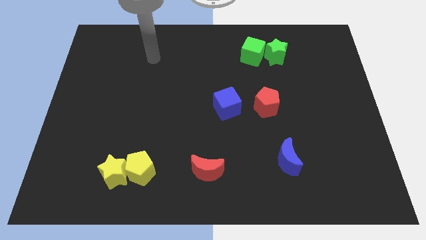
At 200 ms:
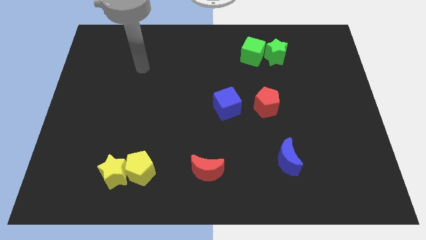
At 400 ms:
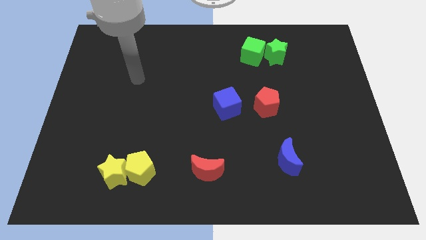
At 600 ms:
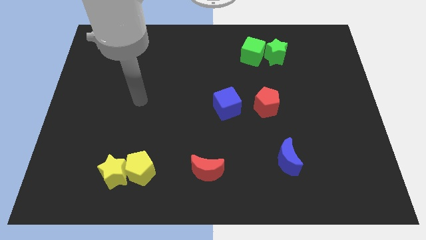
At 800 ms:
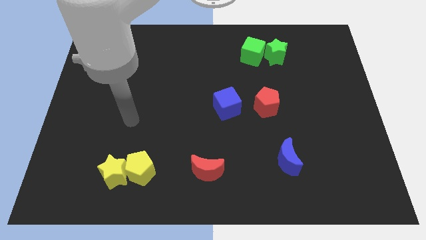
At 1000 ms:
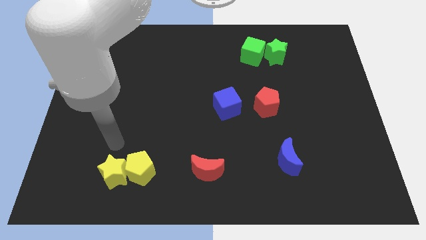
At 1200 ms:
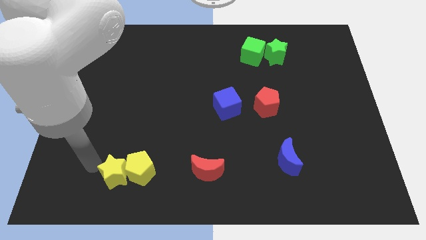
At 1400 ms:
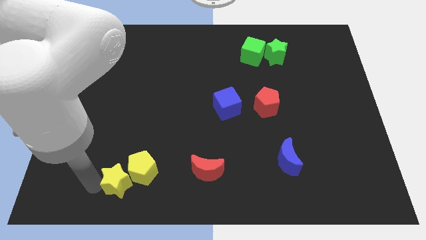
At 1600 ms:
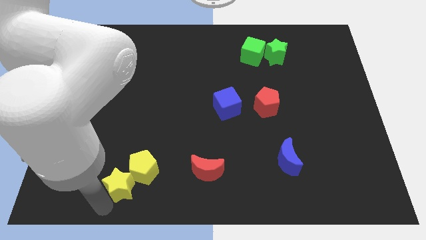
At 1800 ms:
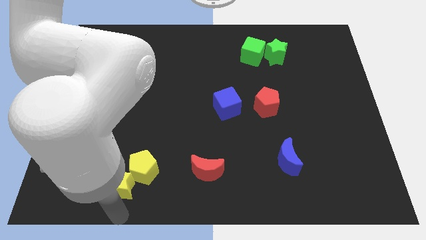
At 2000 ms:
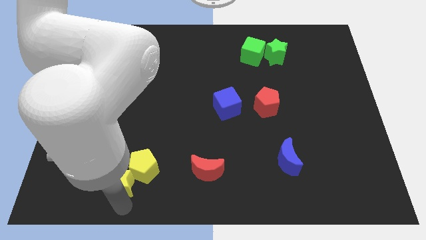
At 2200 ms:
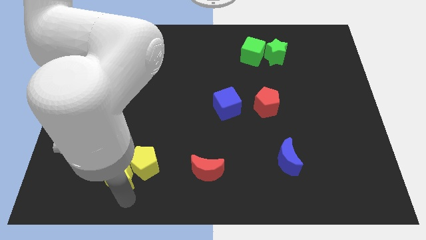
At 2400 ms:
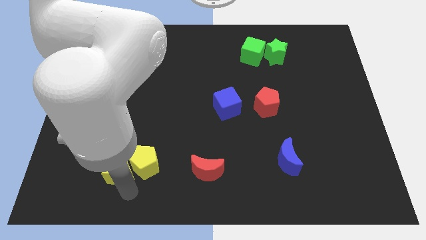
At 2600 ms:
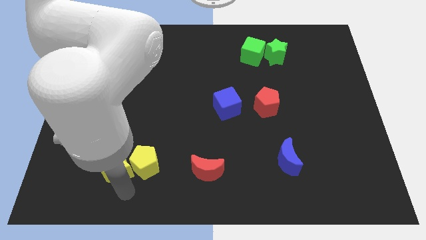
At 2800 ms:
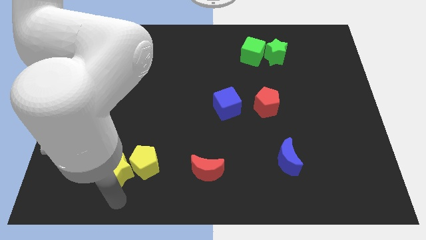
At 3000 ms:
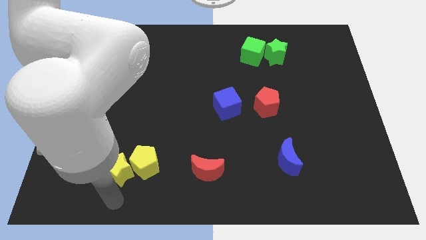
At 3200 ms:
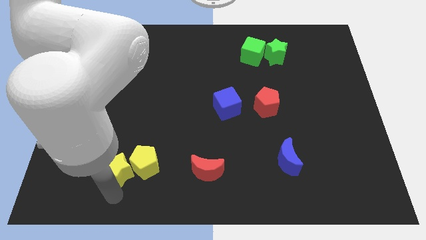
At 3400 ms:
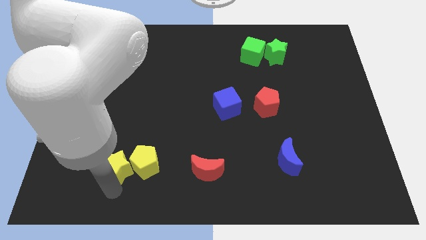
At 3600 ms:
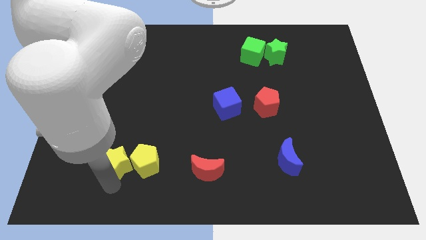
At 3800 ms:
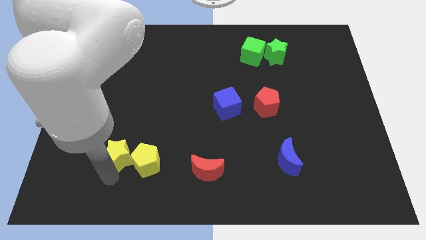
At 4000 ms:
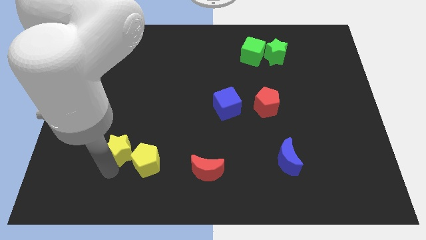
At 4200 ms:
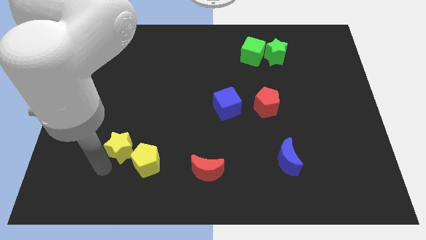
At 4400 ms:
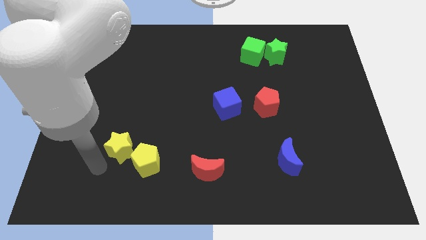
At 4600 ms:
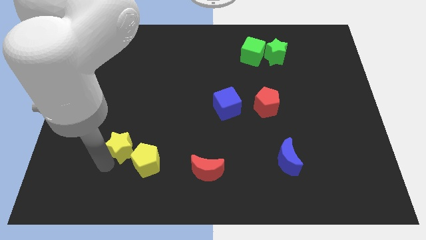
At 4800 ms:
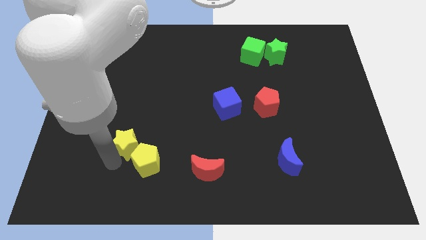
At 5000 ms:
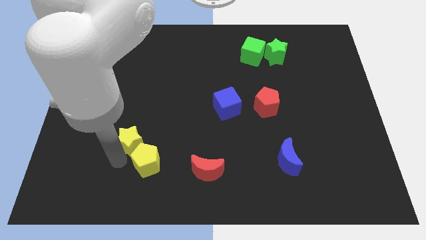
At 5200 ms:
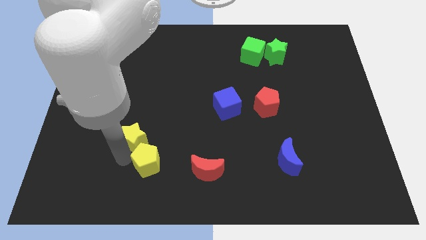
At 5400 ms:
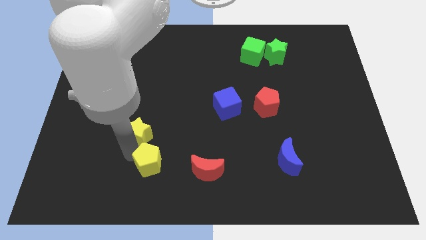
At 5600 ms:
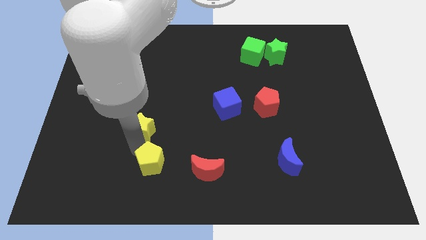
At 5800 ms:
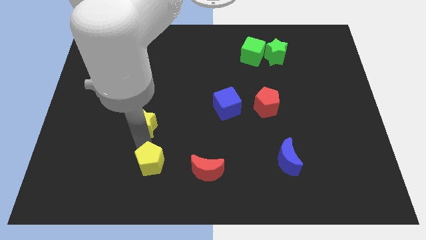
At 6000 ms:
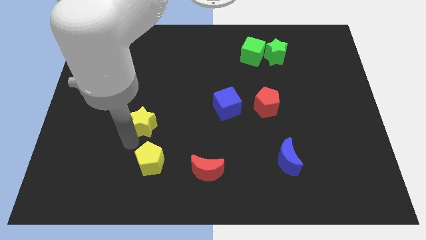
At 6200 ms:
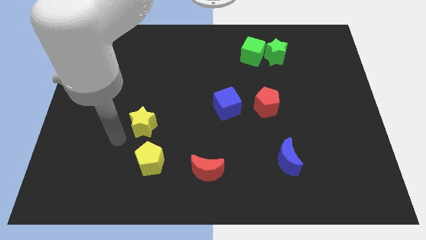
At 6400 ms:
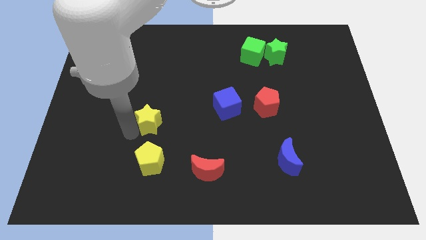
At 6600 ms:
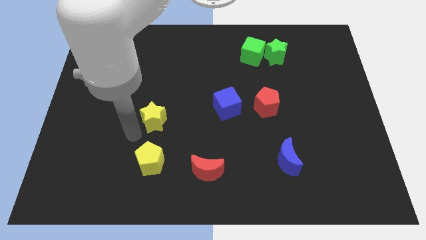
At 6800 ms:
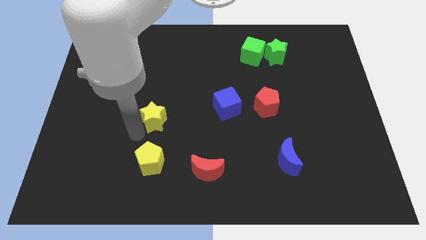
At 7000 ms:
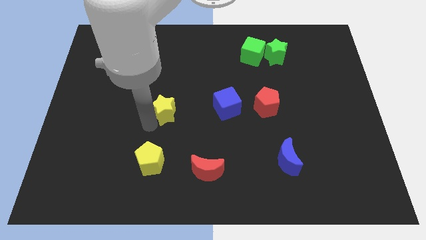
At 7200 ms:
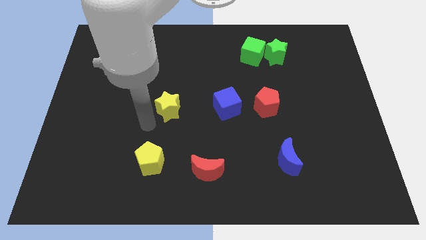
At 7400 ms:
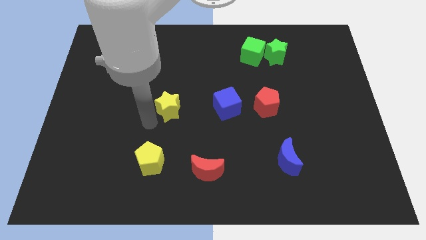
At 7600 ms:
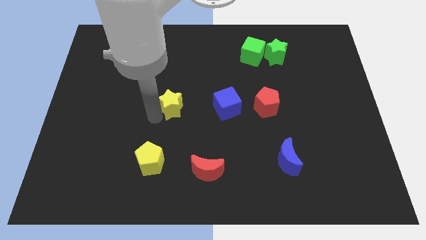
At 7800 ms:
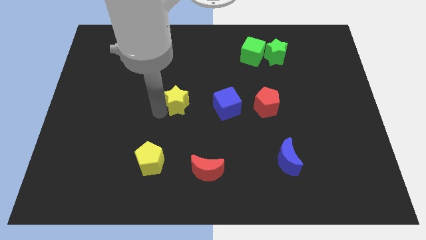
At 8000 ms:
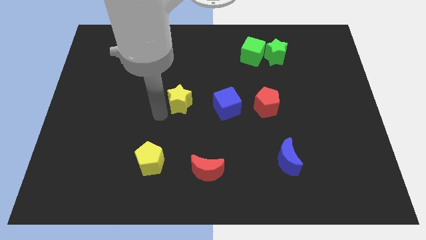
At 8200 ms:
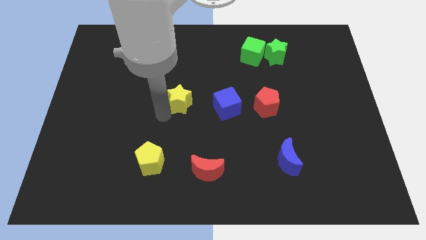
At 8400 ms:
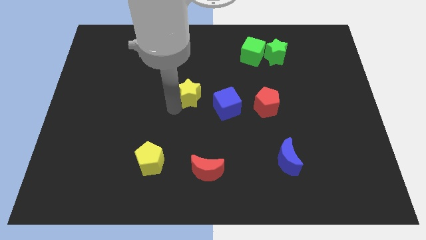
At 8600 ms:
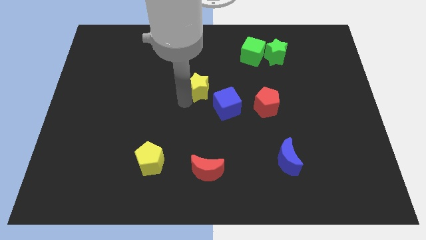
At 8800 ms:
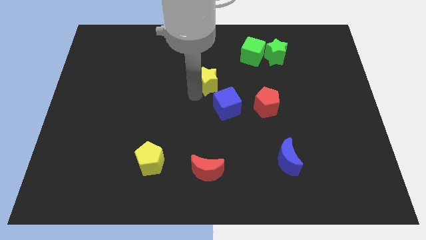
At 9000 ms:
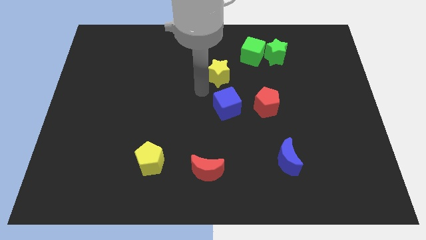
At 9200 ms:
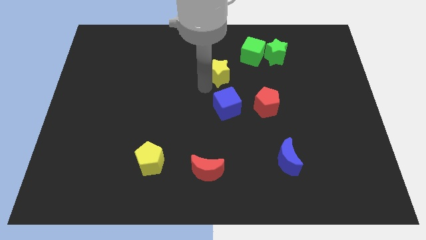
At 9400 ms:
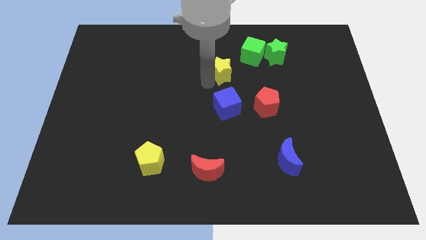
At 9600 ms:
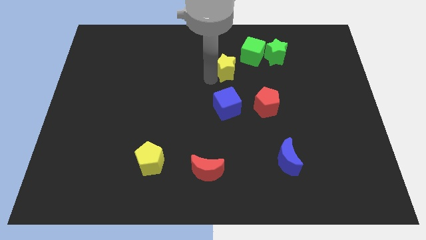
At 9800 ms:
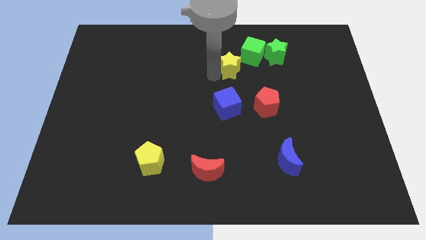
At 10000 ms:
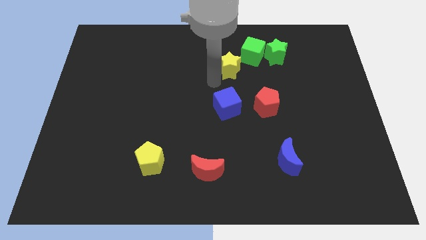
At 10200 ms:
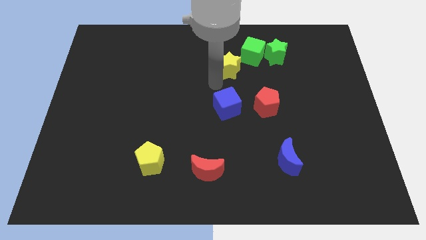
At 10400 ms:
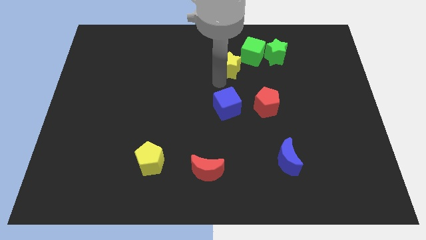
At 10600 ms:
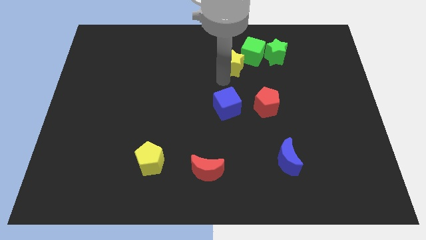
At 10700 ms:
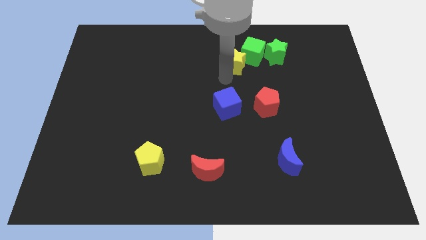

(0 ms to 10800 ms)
put the yellow star next to the green cube

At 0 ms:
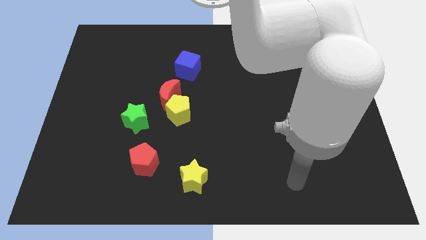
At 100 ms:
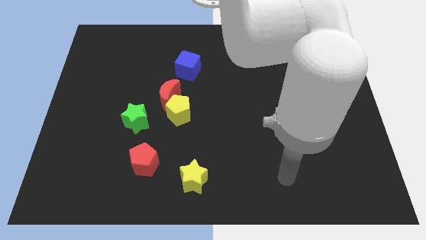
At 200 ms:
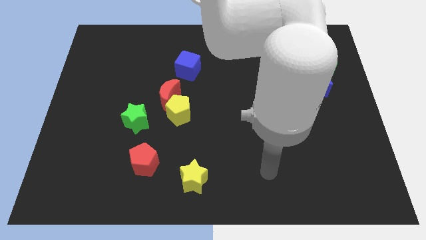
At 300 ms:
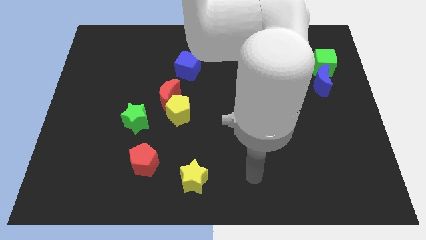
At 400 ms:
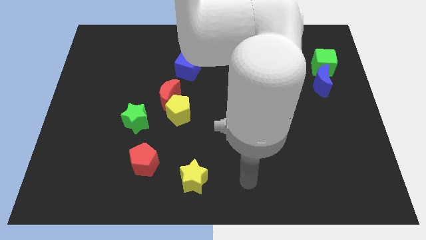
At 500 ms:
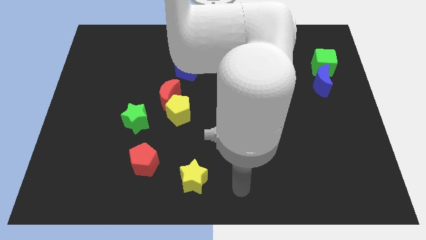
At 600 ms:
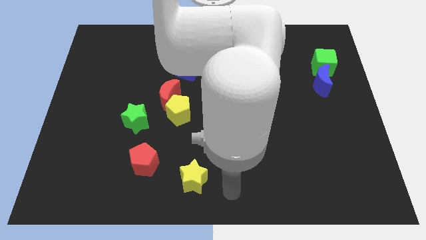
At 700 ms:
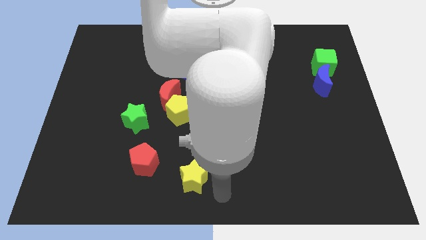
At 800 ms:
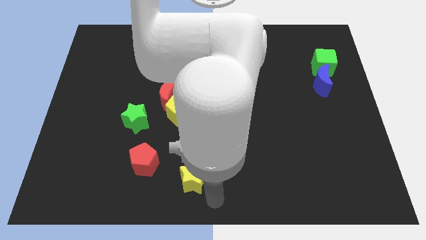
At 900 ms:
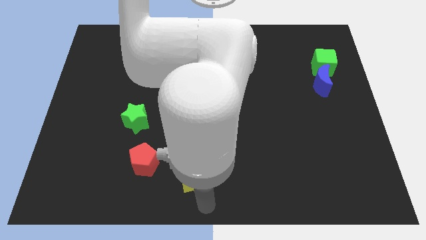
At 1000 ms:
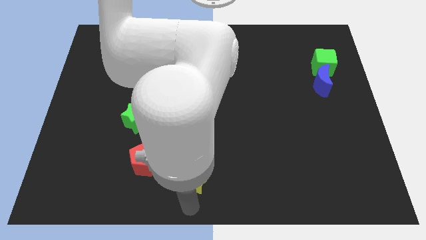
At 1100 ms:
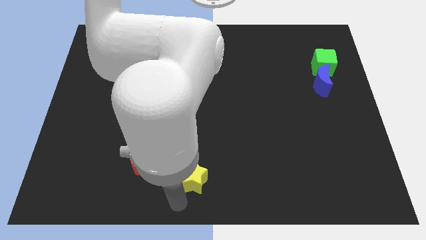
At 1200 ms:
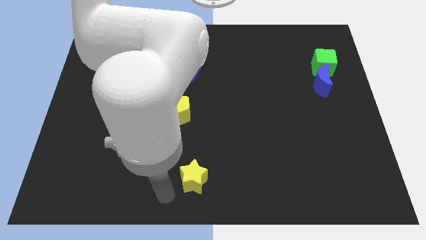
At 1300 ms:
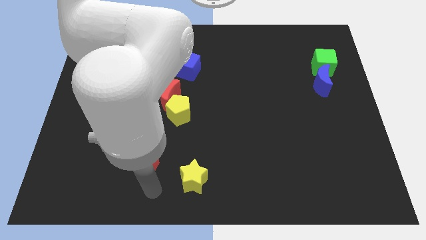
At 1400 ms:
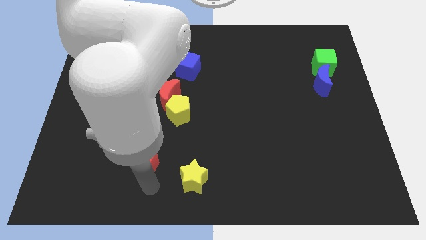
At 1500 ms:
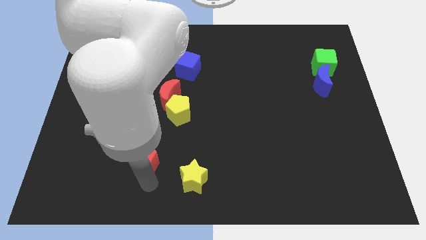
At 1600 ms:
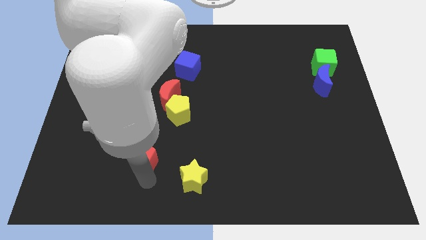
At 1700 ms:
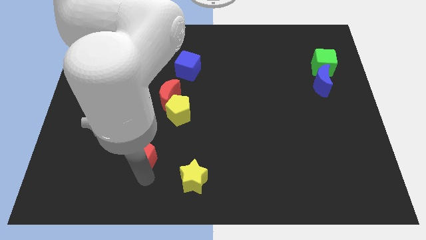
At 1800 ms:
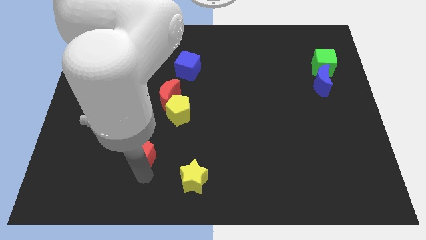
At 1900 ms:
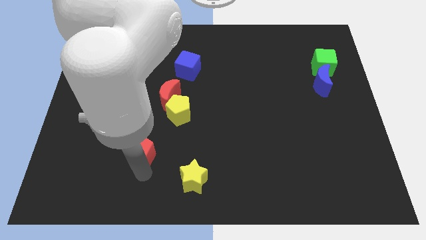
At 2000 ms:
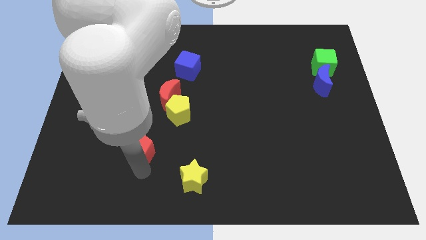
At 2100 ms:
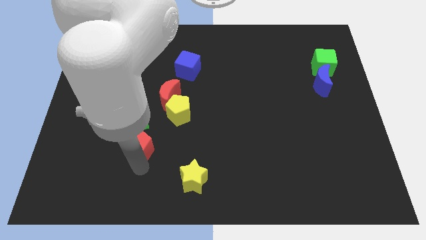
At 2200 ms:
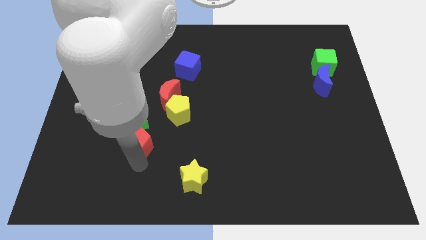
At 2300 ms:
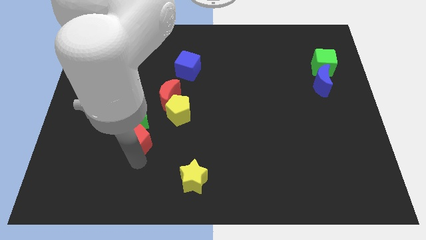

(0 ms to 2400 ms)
put the red pentagon to the green star

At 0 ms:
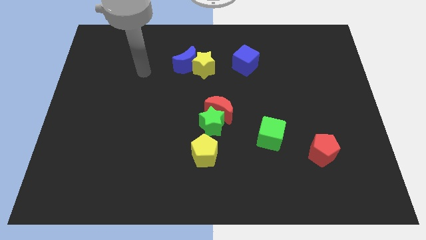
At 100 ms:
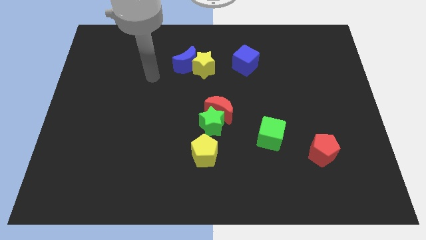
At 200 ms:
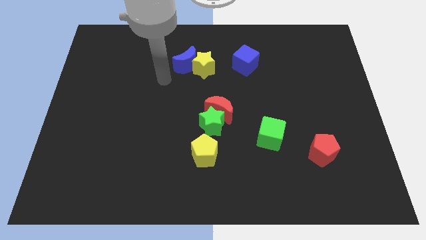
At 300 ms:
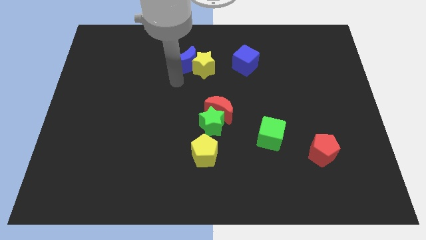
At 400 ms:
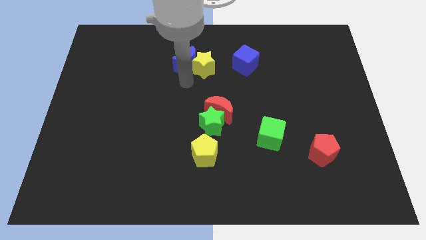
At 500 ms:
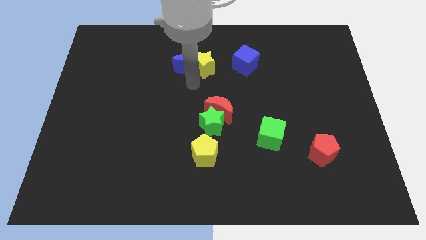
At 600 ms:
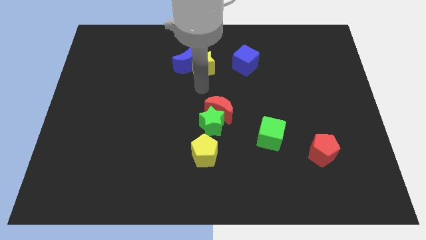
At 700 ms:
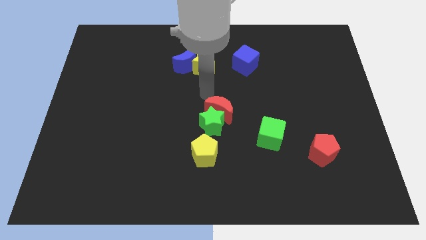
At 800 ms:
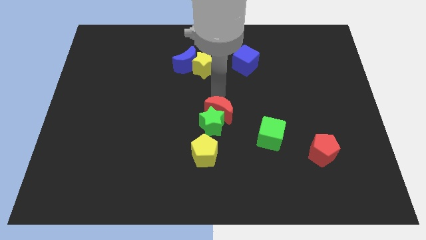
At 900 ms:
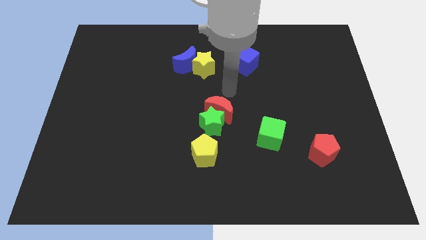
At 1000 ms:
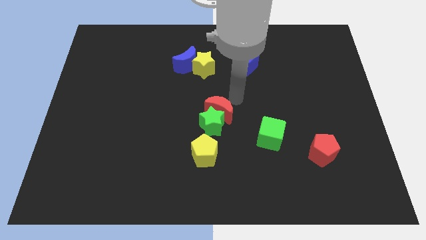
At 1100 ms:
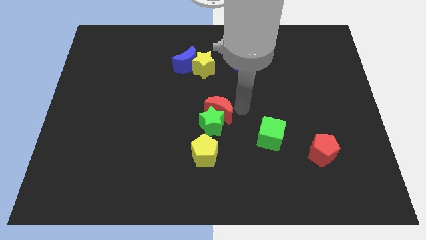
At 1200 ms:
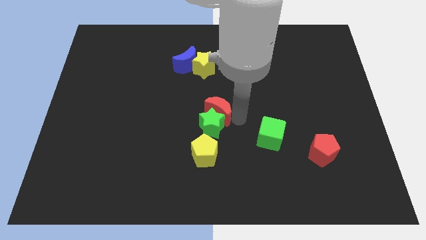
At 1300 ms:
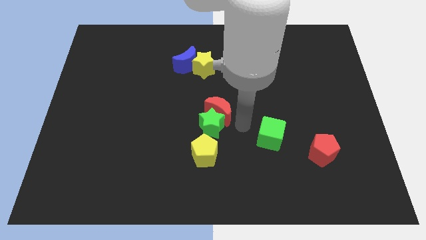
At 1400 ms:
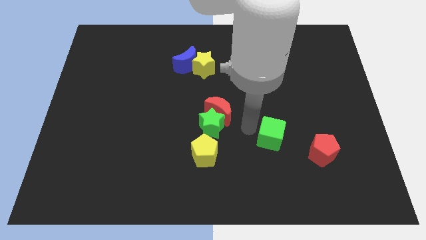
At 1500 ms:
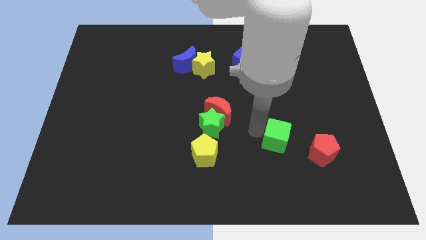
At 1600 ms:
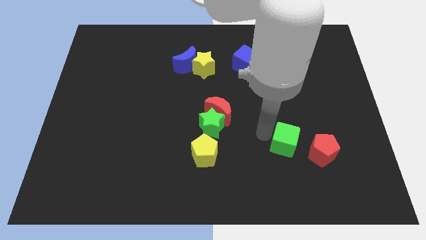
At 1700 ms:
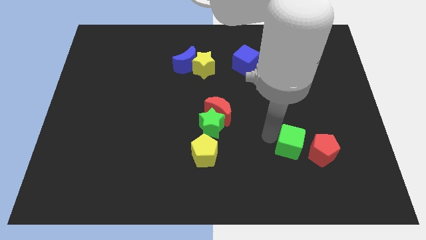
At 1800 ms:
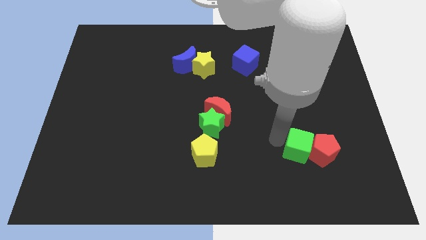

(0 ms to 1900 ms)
push the green cube towards the red pentagon
